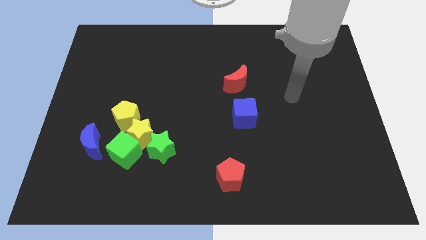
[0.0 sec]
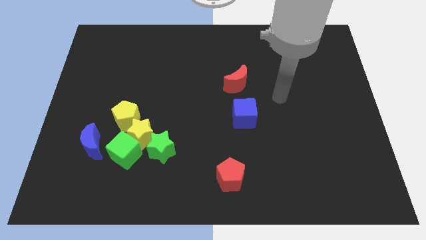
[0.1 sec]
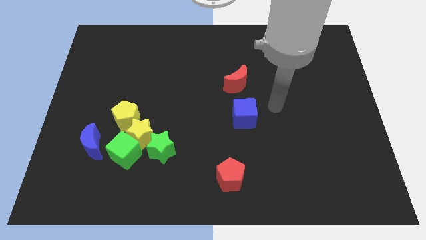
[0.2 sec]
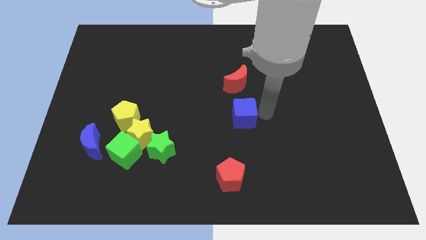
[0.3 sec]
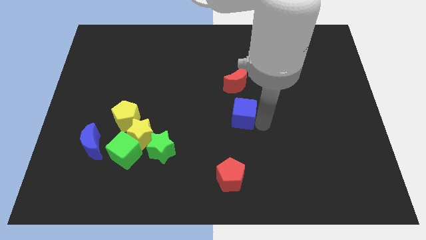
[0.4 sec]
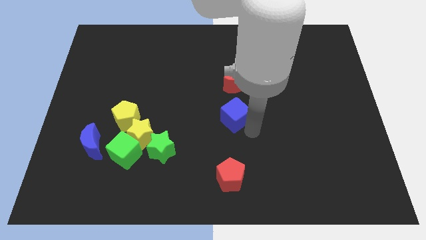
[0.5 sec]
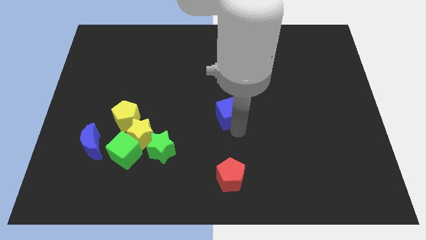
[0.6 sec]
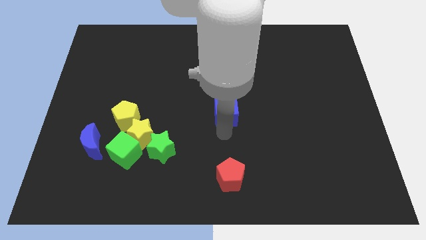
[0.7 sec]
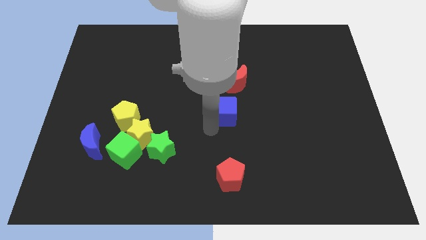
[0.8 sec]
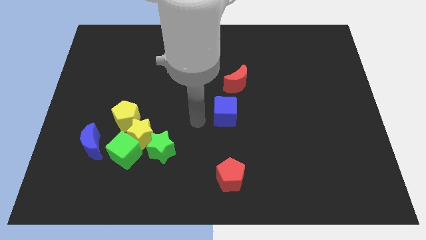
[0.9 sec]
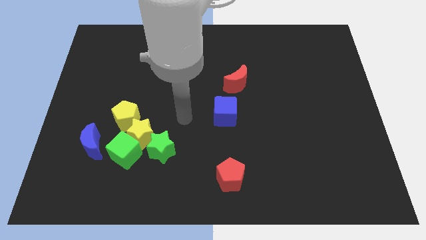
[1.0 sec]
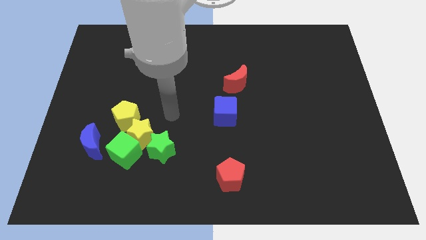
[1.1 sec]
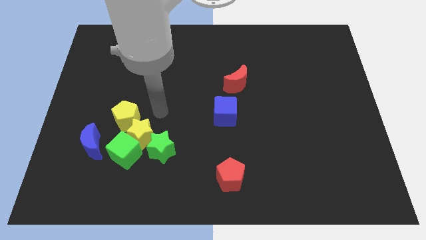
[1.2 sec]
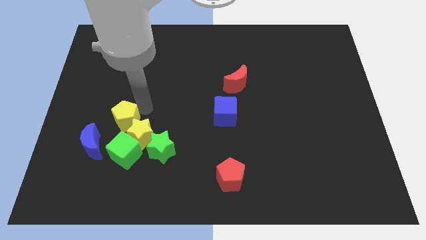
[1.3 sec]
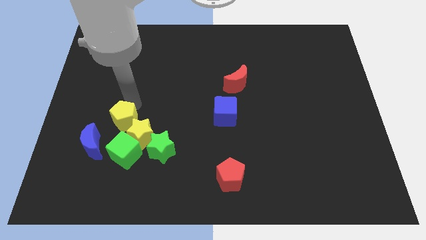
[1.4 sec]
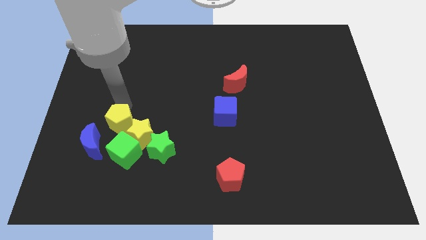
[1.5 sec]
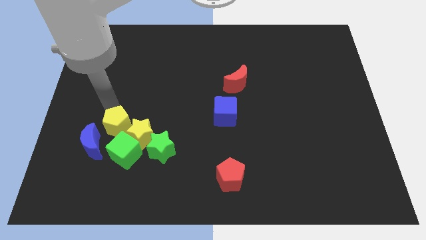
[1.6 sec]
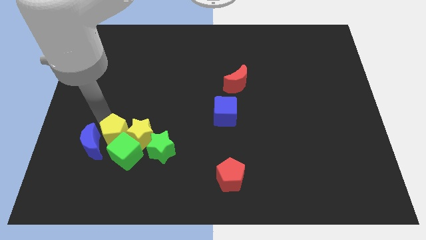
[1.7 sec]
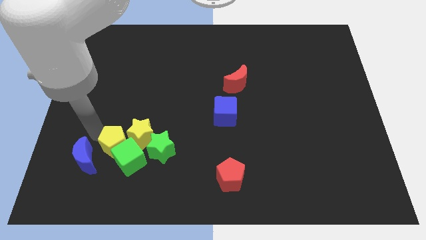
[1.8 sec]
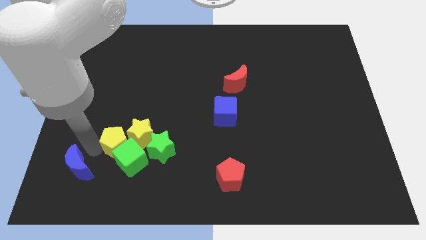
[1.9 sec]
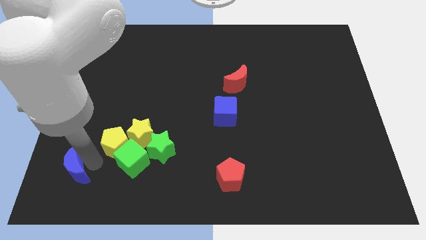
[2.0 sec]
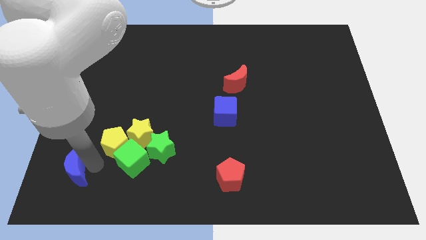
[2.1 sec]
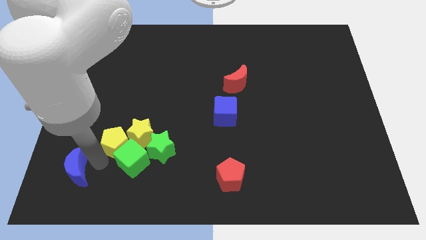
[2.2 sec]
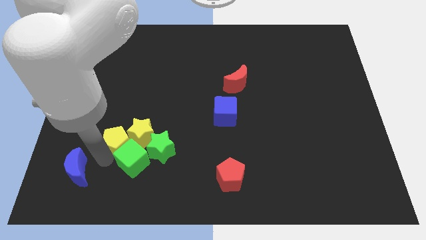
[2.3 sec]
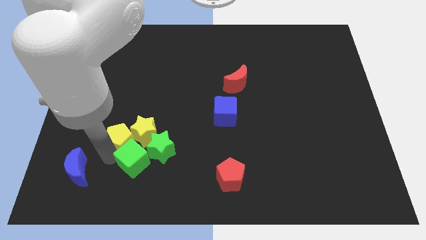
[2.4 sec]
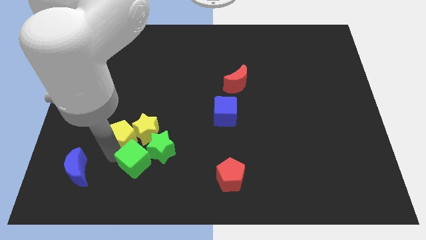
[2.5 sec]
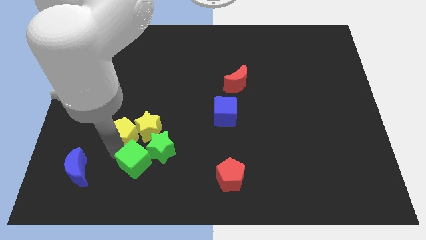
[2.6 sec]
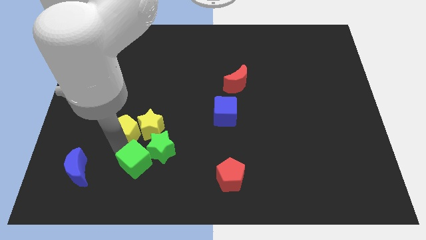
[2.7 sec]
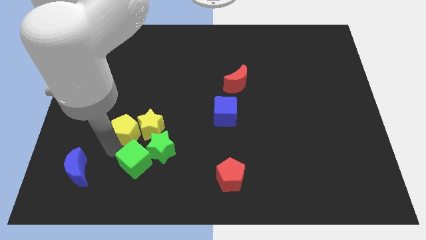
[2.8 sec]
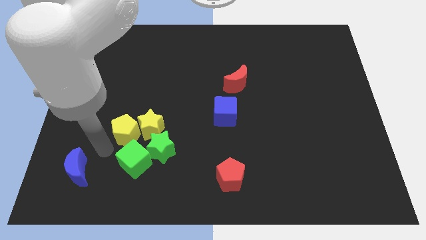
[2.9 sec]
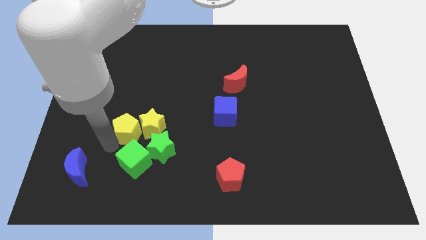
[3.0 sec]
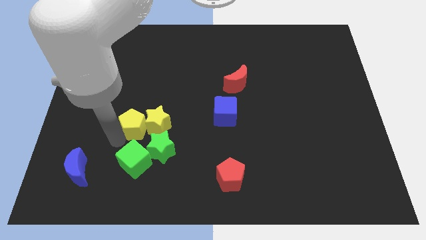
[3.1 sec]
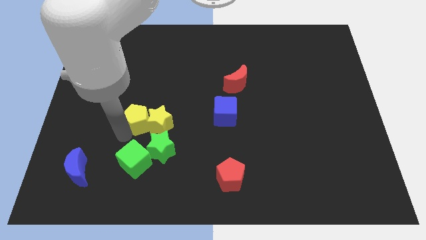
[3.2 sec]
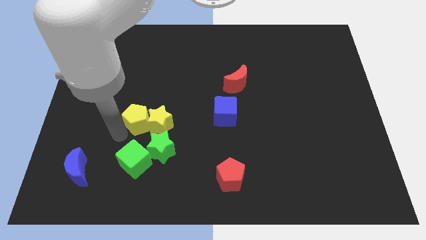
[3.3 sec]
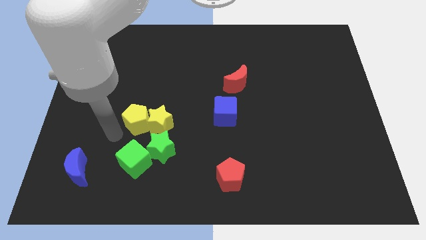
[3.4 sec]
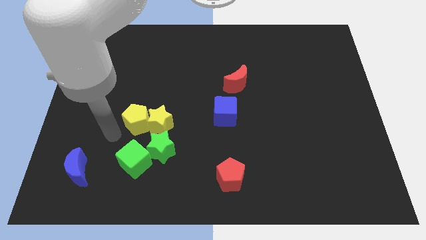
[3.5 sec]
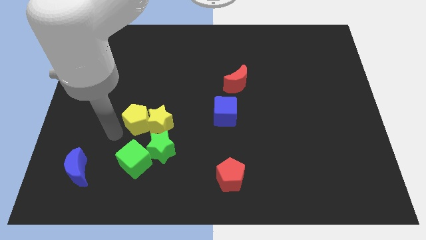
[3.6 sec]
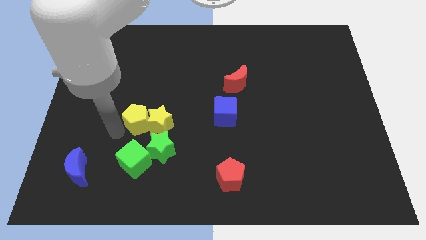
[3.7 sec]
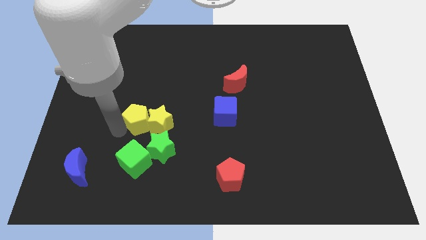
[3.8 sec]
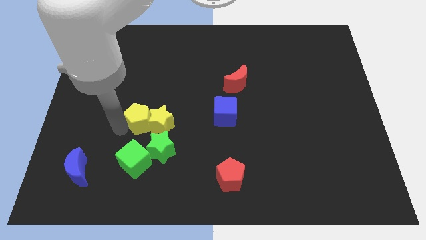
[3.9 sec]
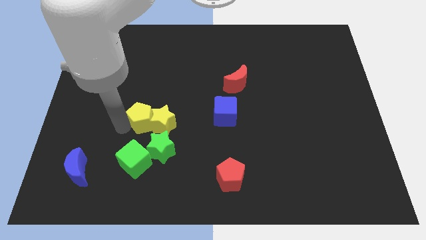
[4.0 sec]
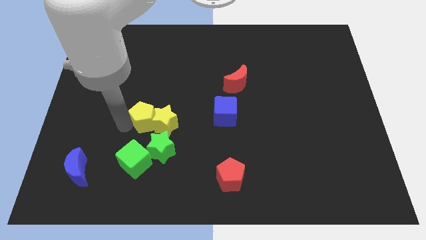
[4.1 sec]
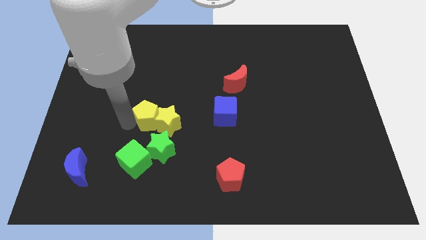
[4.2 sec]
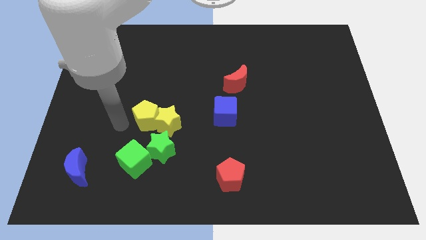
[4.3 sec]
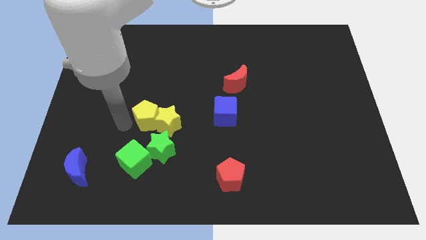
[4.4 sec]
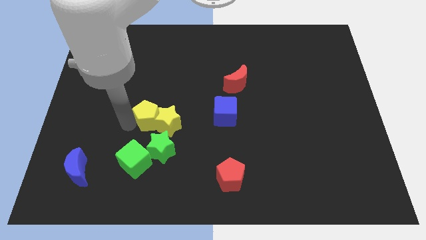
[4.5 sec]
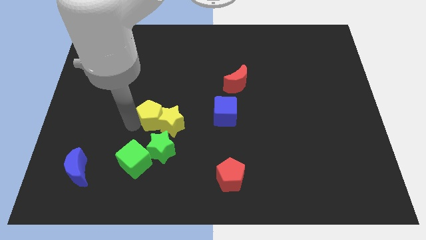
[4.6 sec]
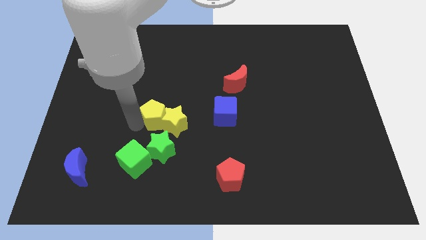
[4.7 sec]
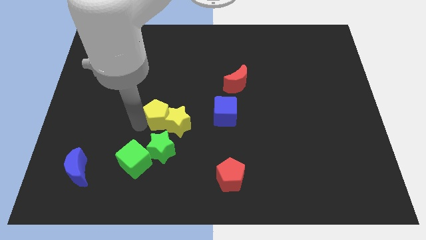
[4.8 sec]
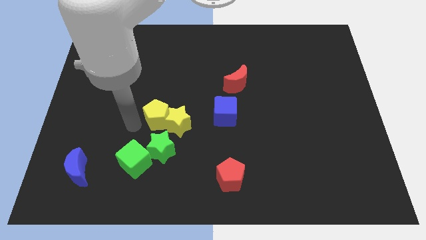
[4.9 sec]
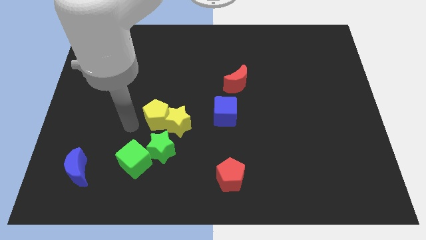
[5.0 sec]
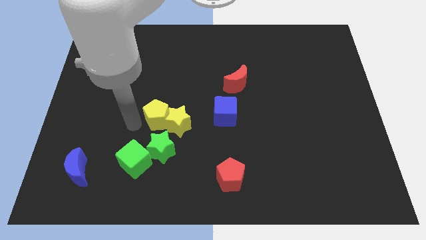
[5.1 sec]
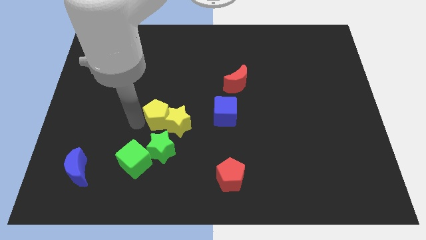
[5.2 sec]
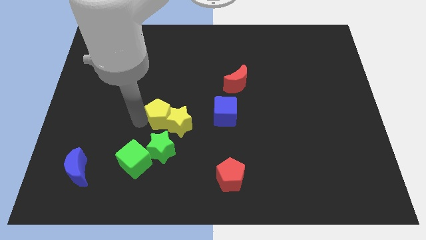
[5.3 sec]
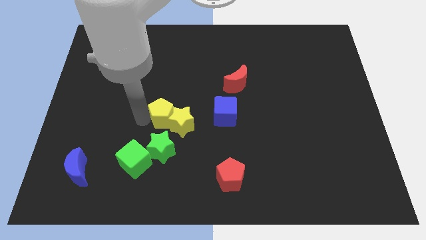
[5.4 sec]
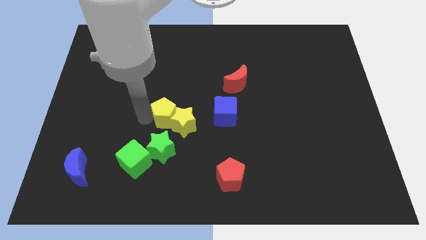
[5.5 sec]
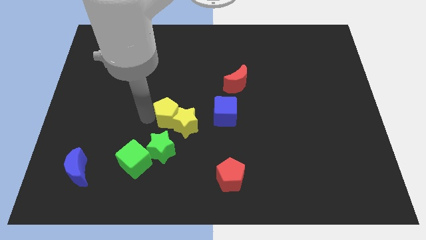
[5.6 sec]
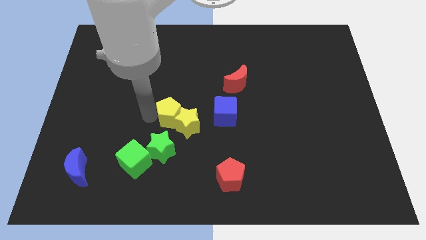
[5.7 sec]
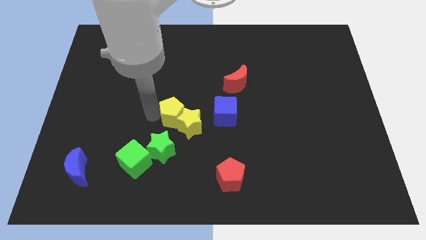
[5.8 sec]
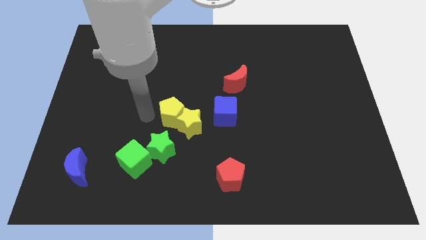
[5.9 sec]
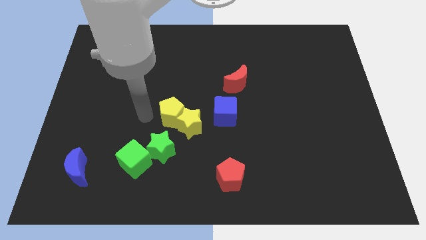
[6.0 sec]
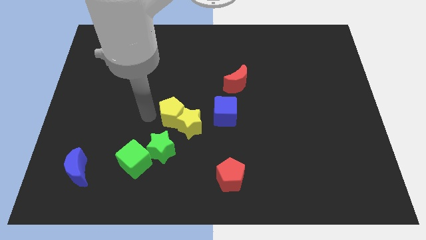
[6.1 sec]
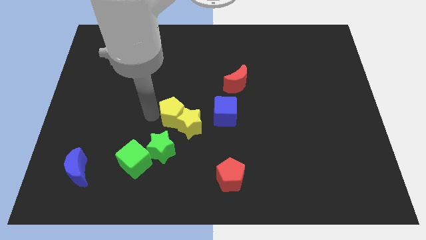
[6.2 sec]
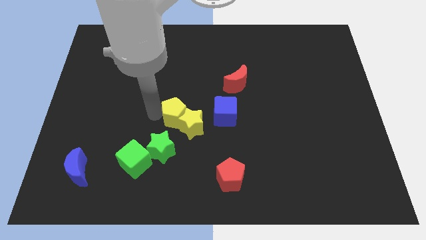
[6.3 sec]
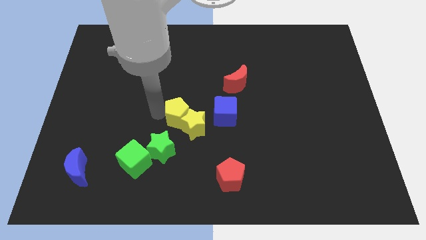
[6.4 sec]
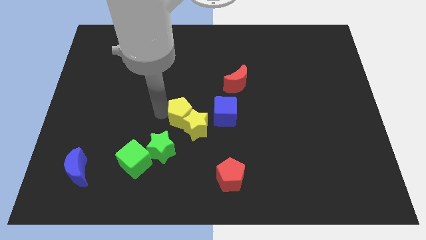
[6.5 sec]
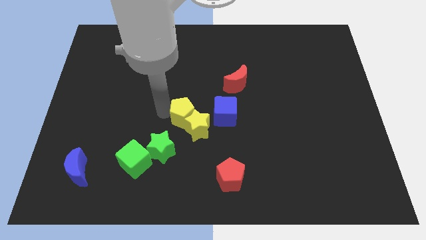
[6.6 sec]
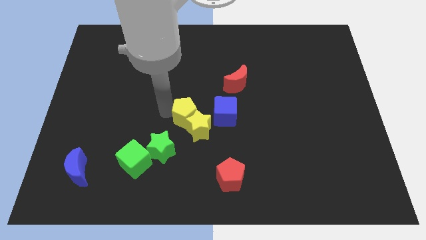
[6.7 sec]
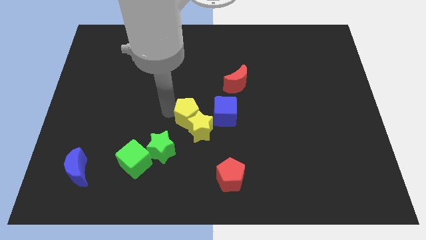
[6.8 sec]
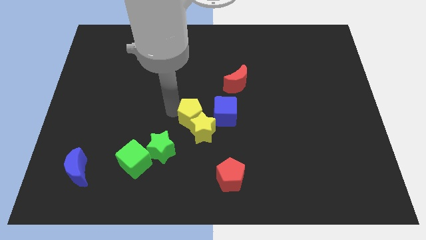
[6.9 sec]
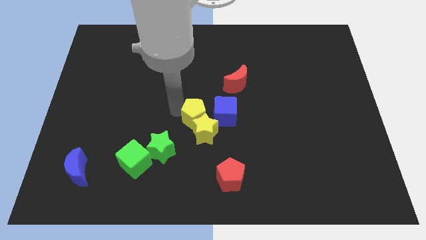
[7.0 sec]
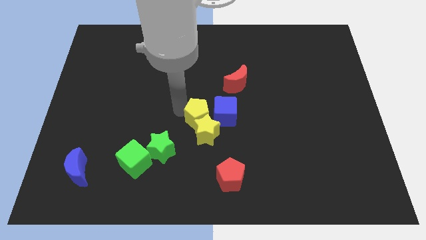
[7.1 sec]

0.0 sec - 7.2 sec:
push the yellow pentagon close to the blue cube

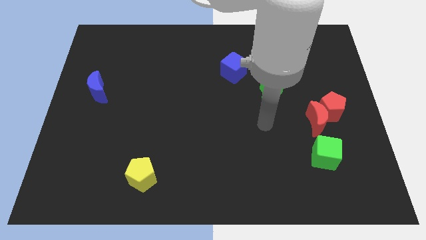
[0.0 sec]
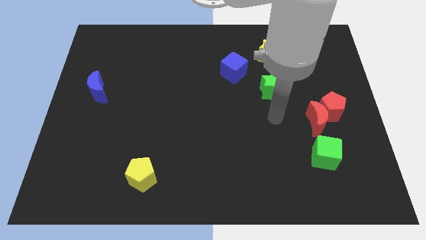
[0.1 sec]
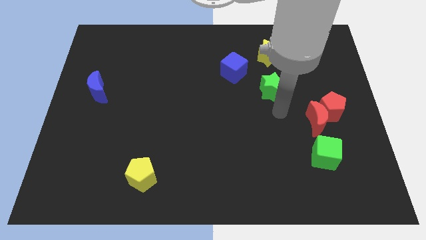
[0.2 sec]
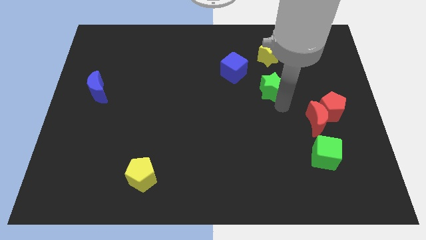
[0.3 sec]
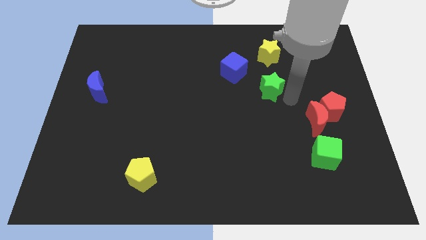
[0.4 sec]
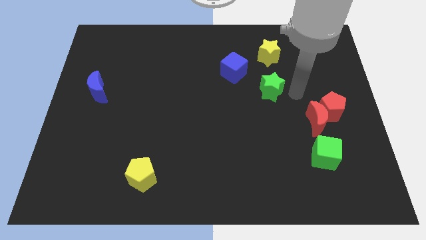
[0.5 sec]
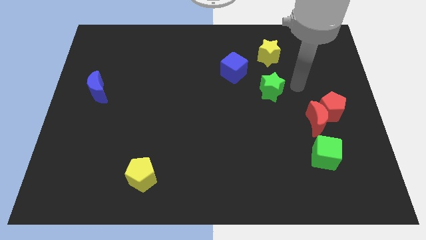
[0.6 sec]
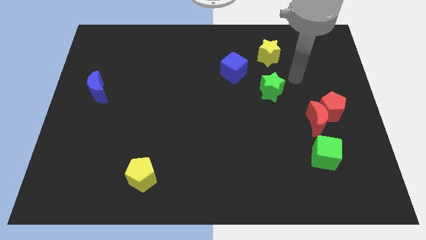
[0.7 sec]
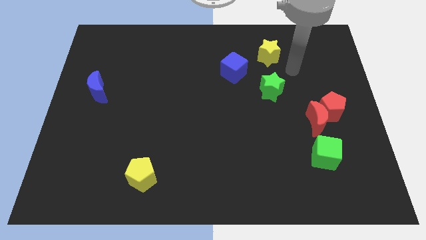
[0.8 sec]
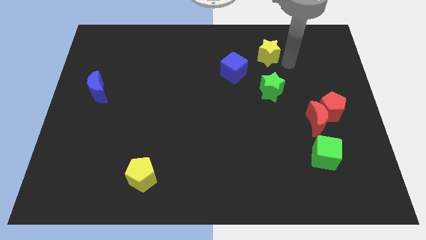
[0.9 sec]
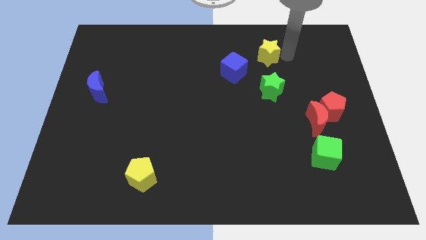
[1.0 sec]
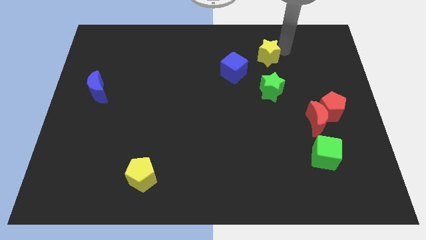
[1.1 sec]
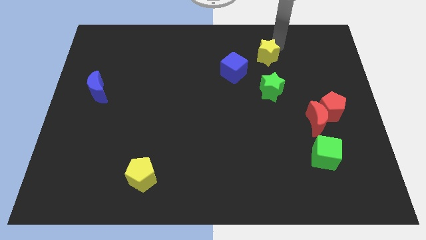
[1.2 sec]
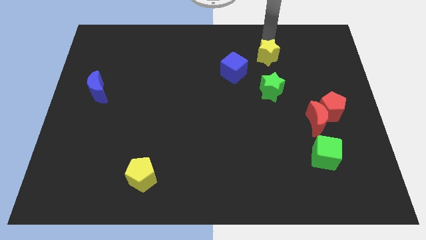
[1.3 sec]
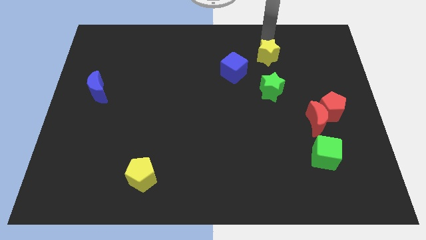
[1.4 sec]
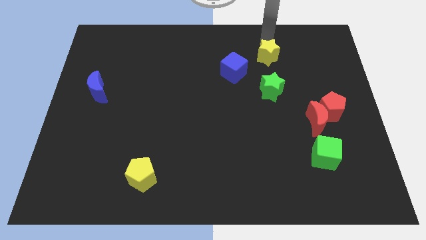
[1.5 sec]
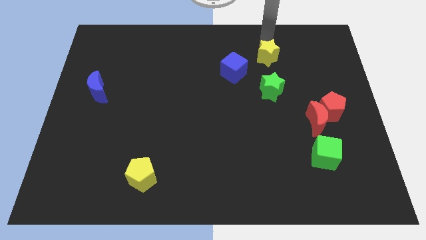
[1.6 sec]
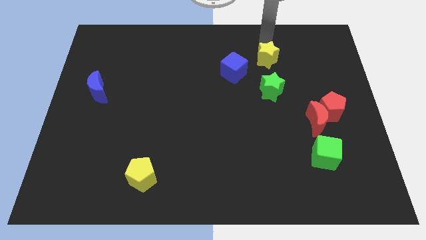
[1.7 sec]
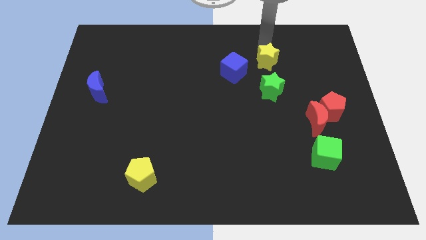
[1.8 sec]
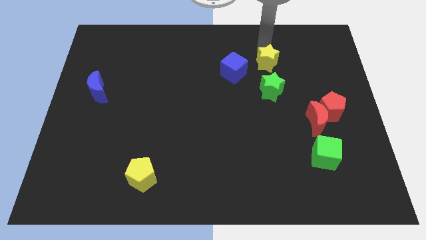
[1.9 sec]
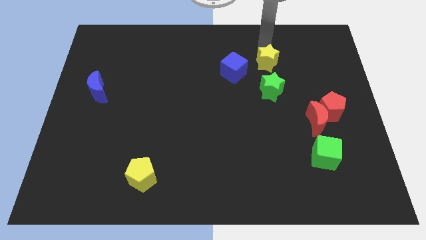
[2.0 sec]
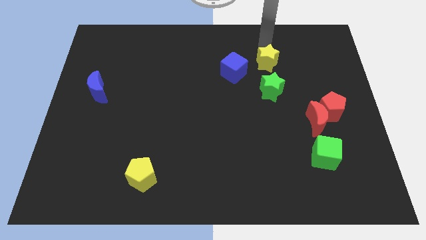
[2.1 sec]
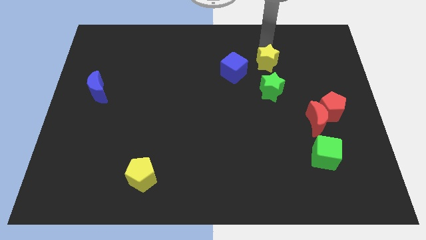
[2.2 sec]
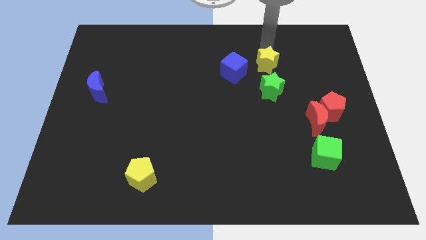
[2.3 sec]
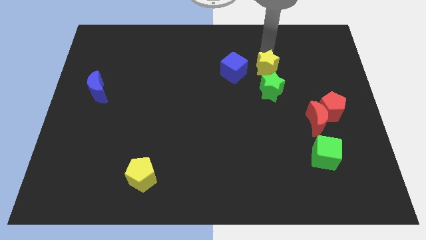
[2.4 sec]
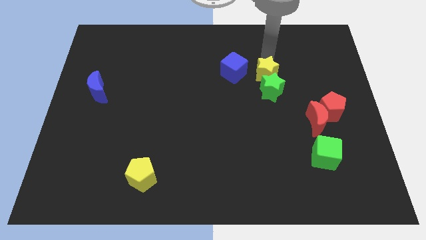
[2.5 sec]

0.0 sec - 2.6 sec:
put the yellow star towards the green star
